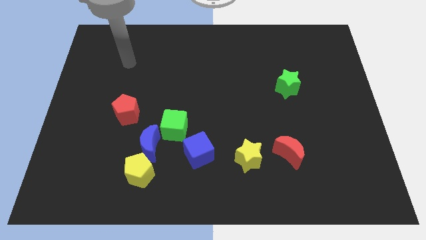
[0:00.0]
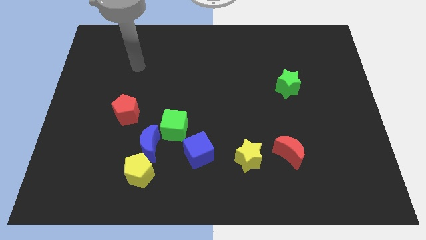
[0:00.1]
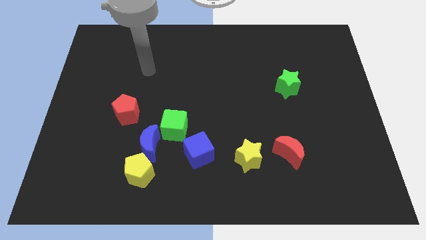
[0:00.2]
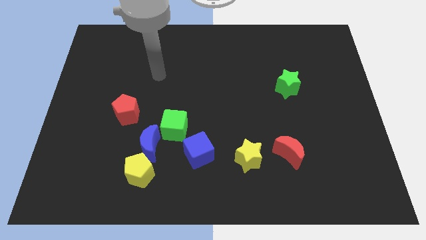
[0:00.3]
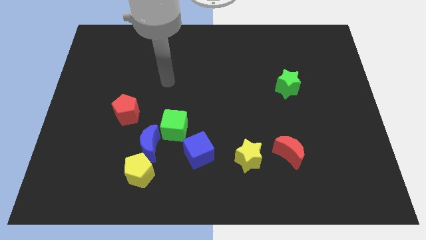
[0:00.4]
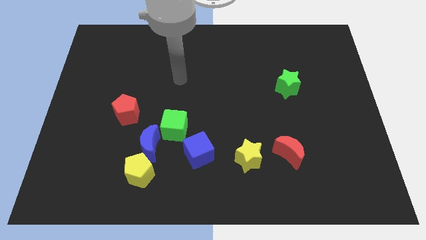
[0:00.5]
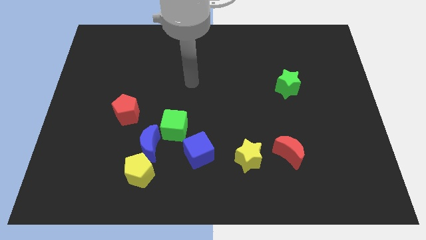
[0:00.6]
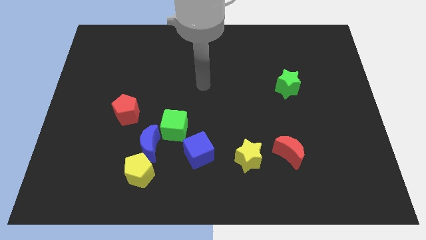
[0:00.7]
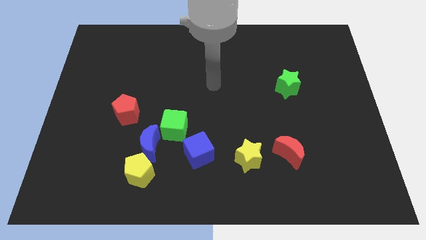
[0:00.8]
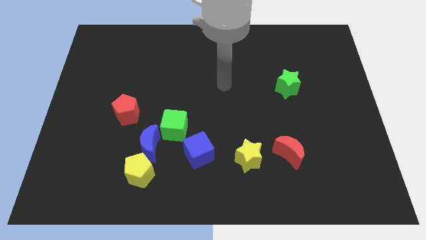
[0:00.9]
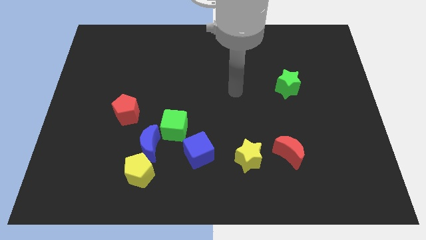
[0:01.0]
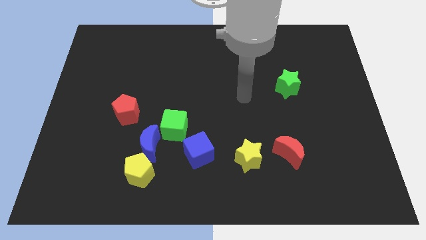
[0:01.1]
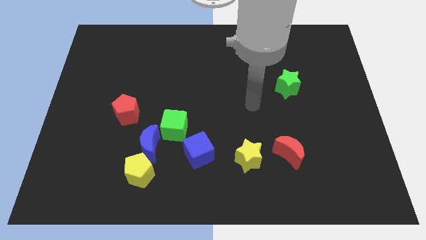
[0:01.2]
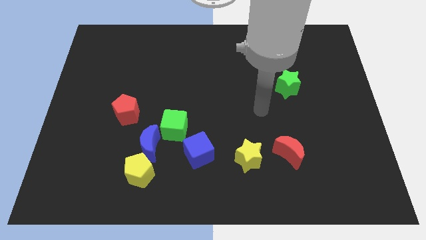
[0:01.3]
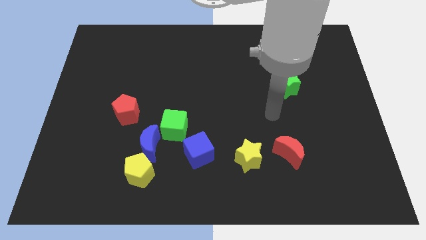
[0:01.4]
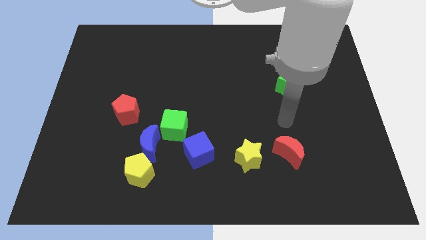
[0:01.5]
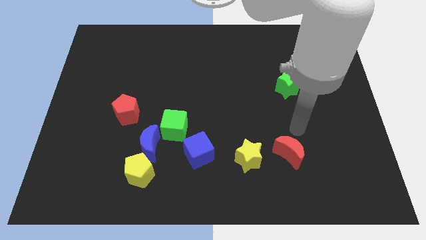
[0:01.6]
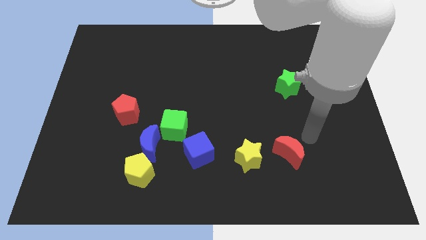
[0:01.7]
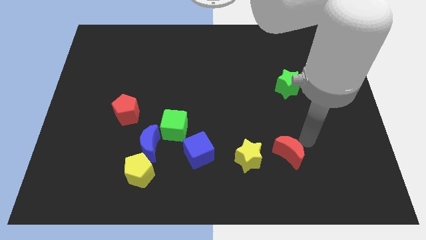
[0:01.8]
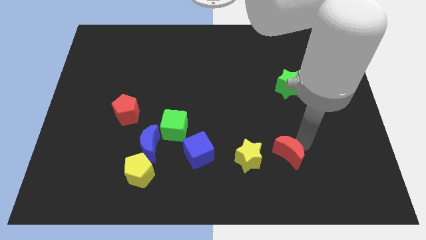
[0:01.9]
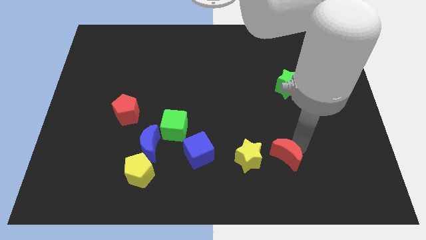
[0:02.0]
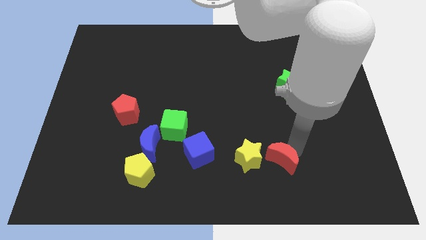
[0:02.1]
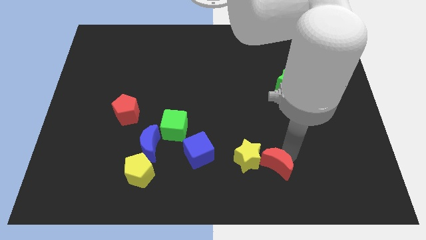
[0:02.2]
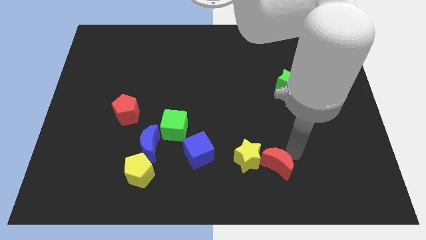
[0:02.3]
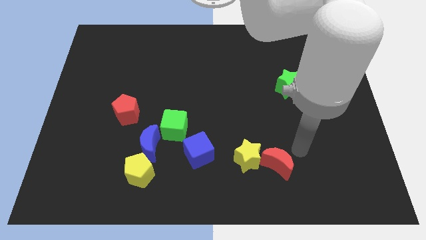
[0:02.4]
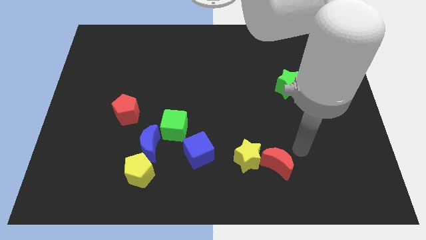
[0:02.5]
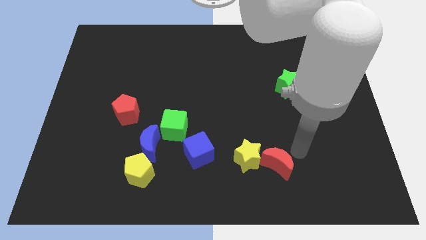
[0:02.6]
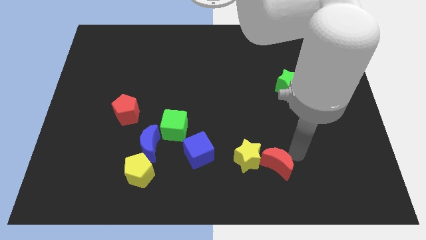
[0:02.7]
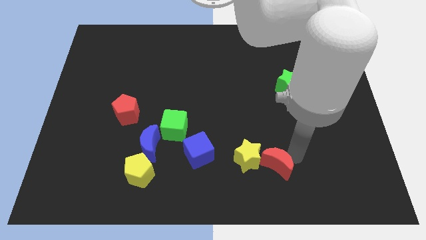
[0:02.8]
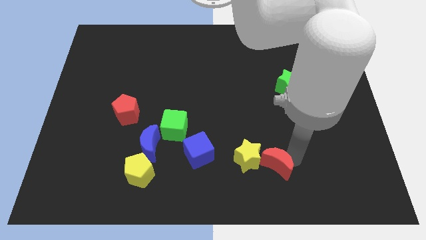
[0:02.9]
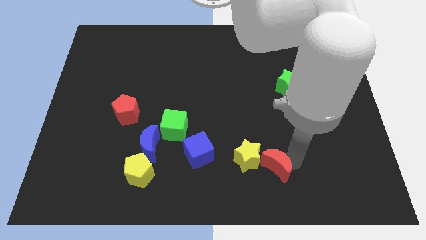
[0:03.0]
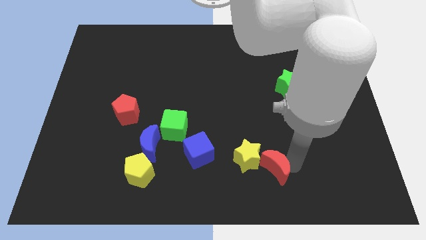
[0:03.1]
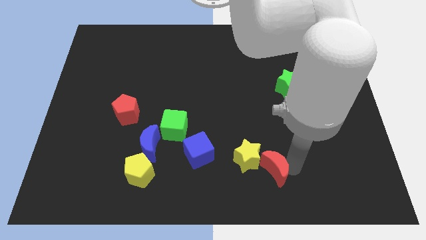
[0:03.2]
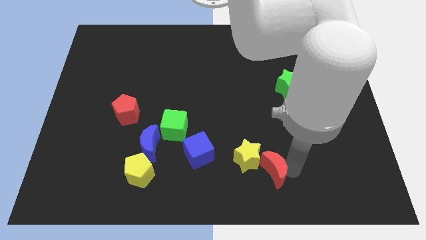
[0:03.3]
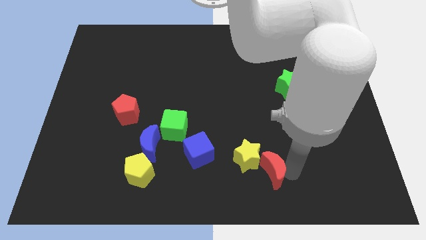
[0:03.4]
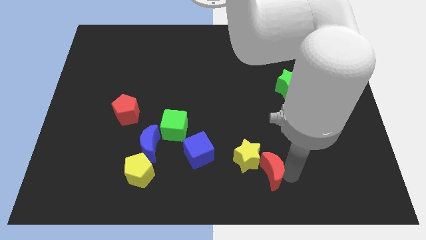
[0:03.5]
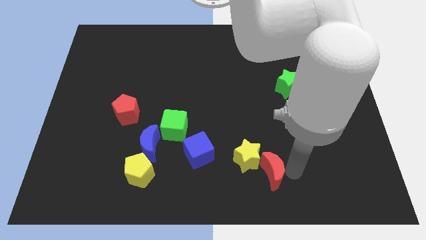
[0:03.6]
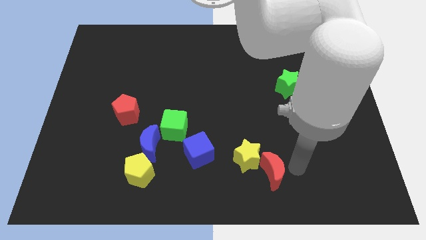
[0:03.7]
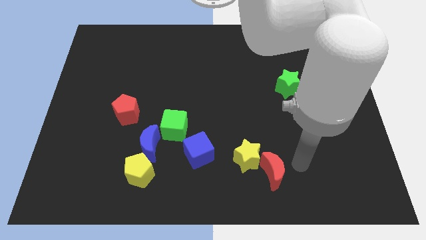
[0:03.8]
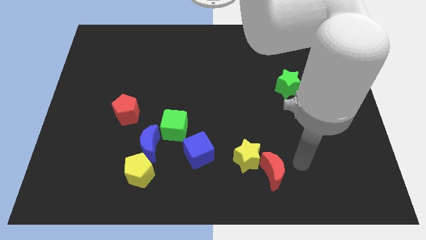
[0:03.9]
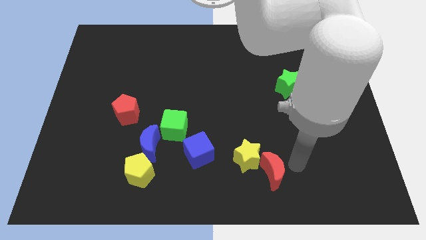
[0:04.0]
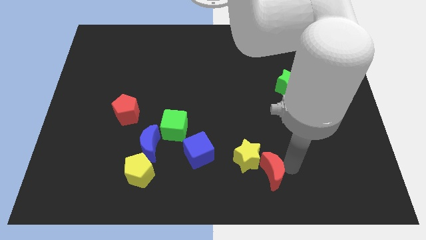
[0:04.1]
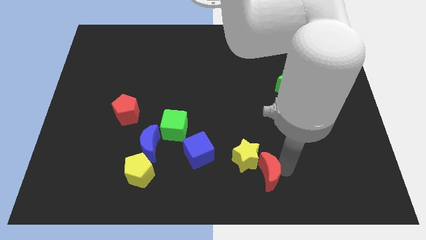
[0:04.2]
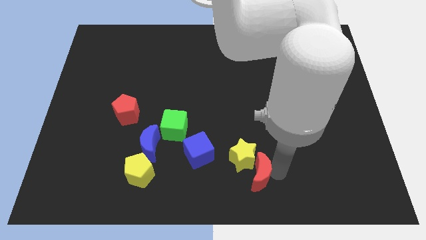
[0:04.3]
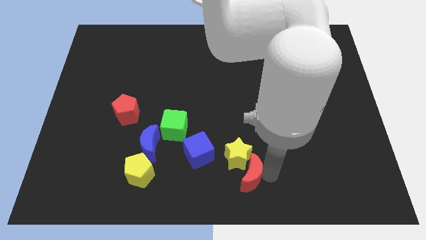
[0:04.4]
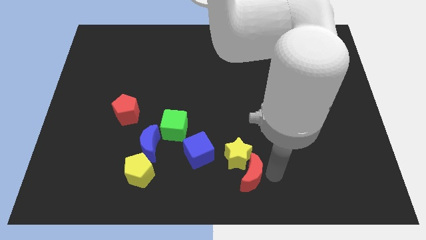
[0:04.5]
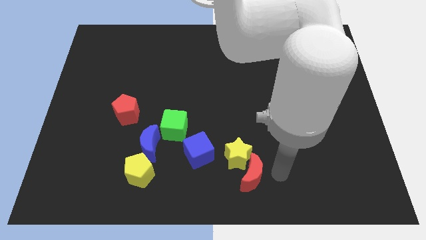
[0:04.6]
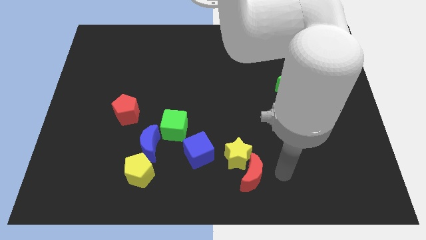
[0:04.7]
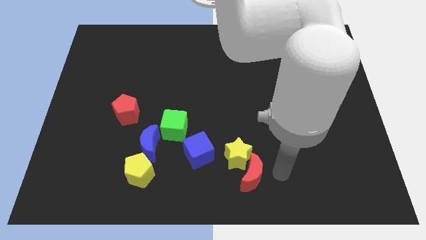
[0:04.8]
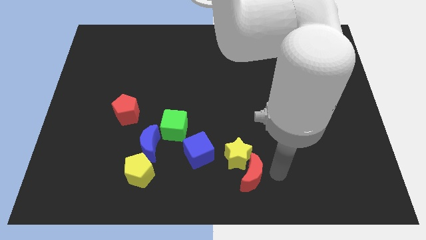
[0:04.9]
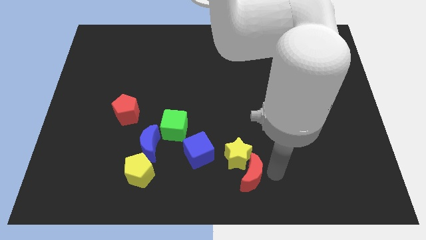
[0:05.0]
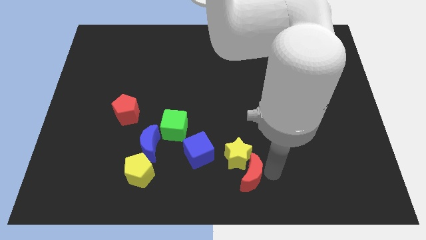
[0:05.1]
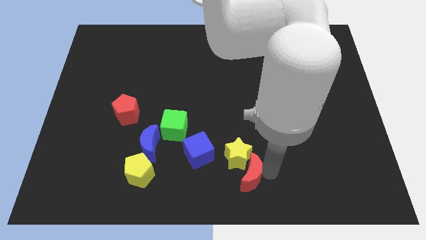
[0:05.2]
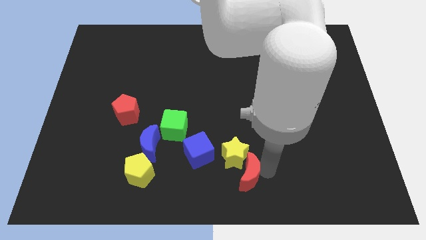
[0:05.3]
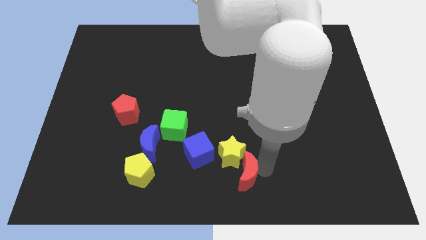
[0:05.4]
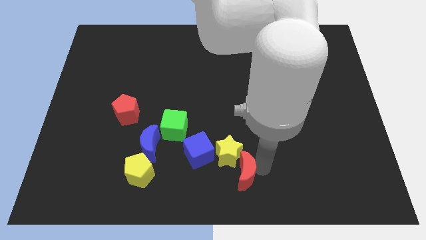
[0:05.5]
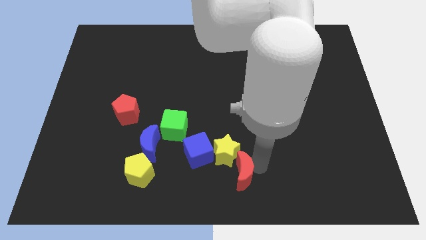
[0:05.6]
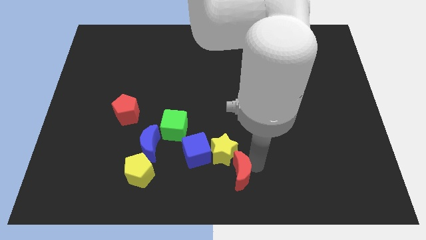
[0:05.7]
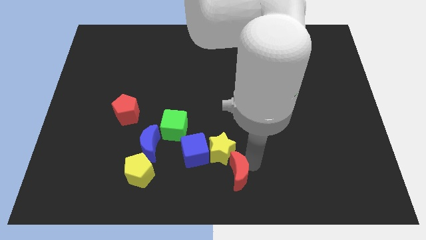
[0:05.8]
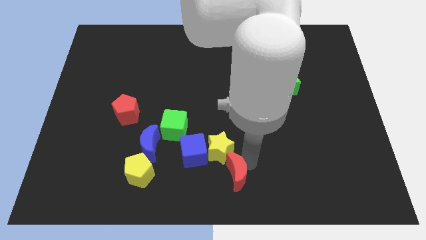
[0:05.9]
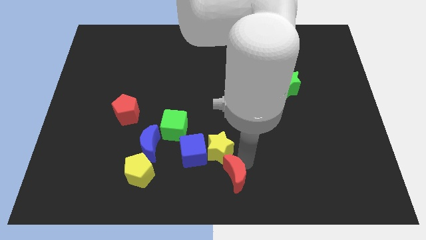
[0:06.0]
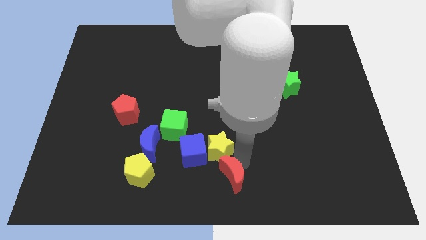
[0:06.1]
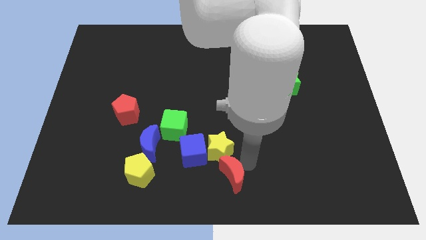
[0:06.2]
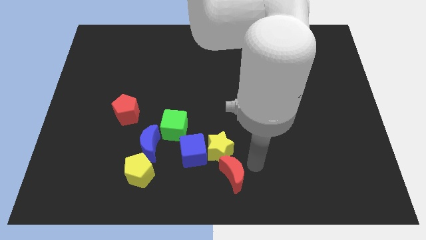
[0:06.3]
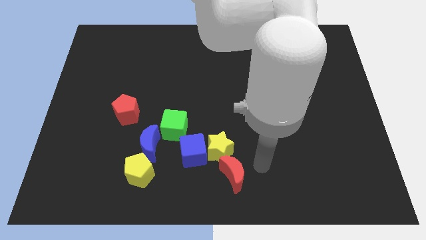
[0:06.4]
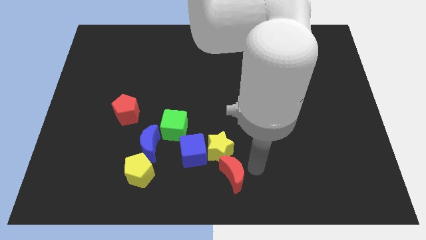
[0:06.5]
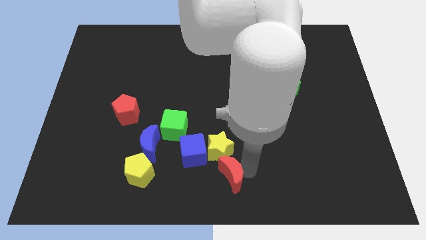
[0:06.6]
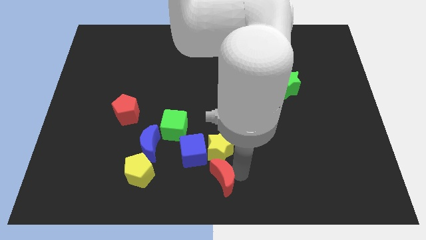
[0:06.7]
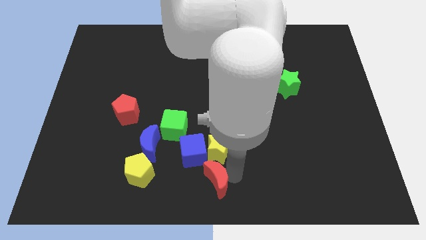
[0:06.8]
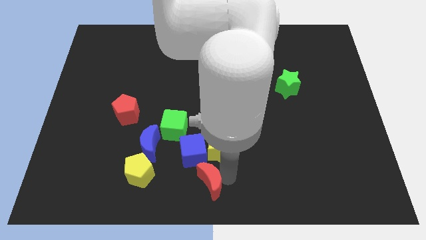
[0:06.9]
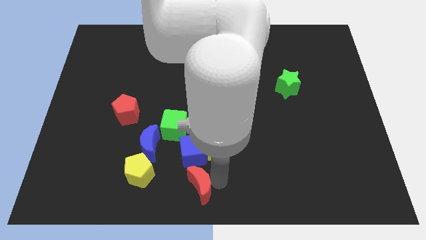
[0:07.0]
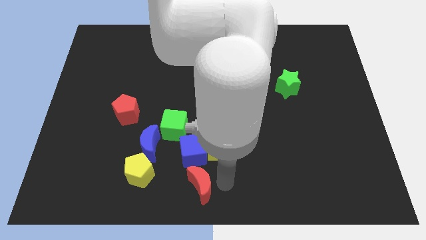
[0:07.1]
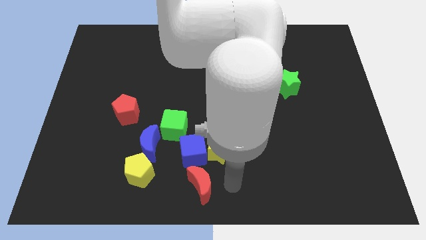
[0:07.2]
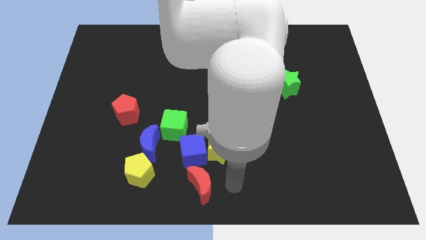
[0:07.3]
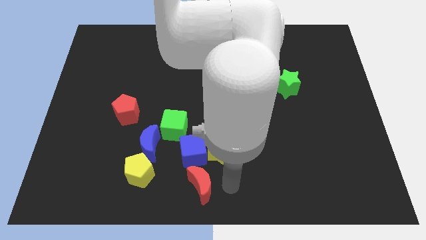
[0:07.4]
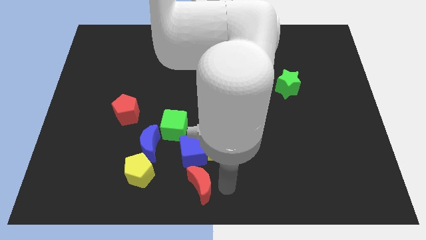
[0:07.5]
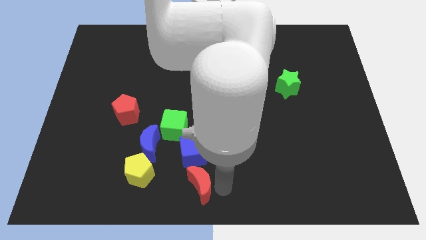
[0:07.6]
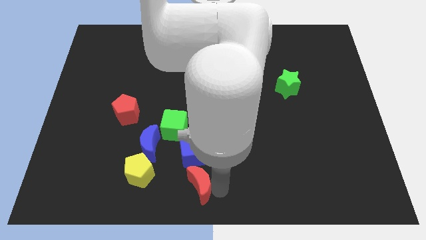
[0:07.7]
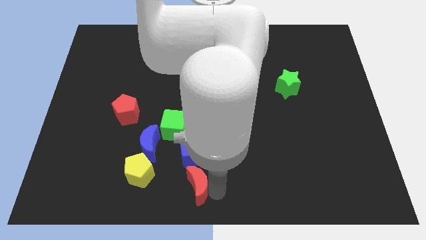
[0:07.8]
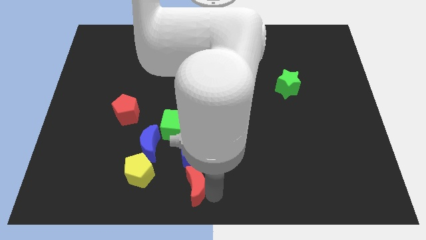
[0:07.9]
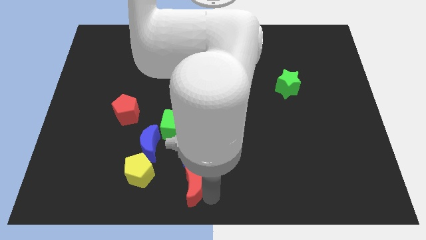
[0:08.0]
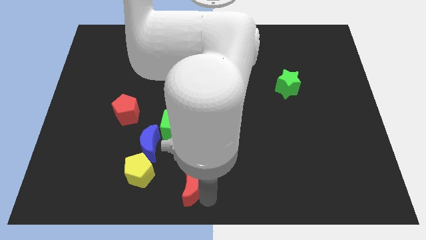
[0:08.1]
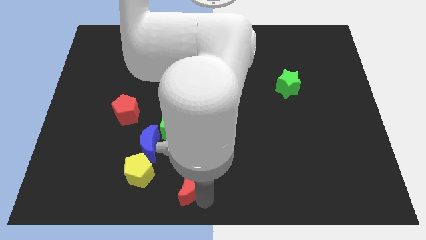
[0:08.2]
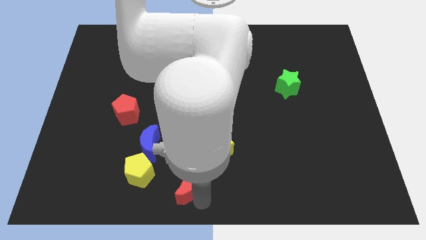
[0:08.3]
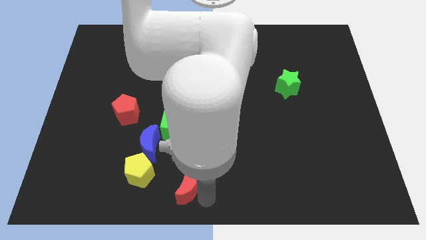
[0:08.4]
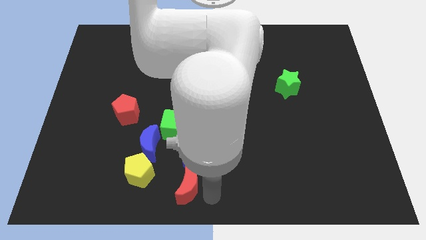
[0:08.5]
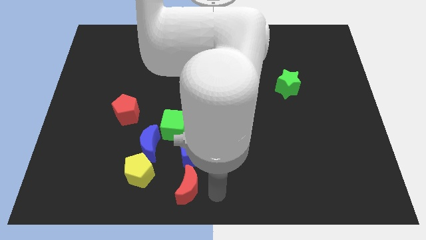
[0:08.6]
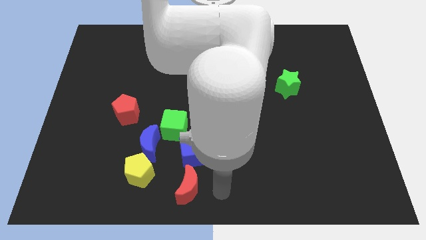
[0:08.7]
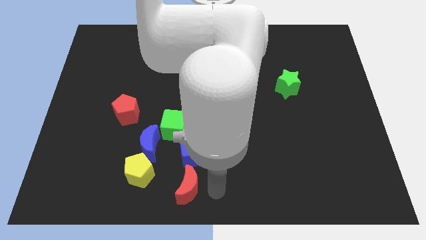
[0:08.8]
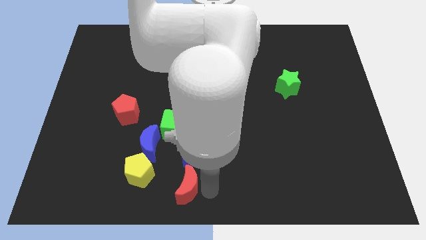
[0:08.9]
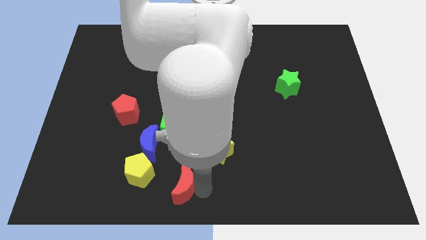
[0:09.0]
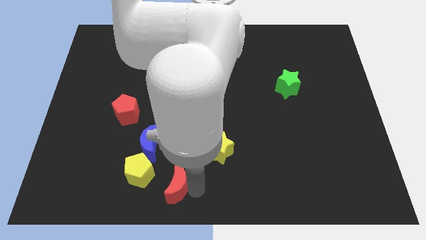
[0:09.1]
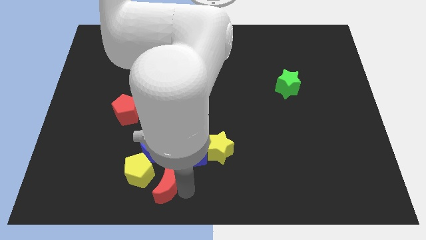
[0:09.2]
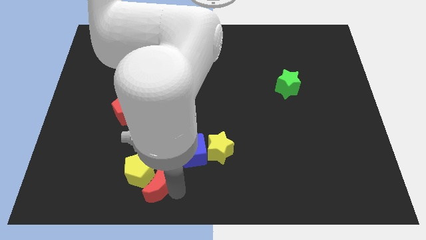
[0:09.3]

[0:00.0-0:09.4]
move the red moon next to the yellow pentagon
